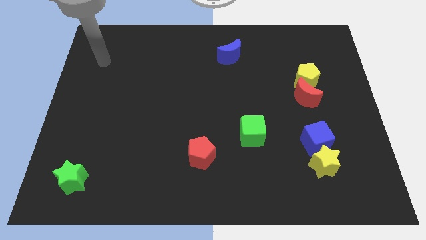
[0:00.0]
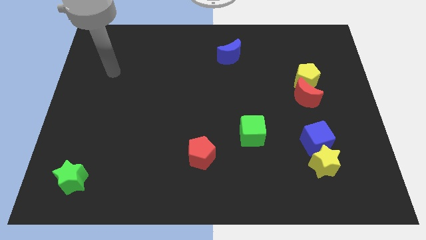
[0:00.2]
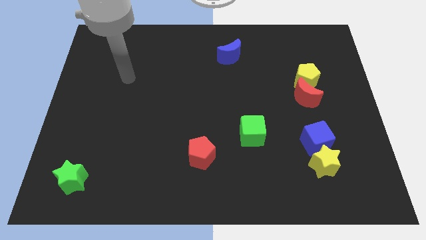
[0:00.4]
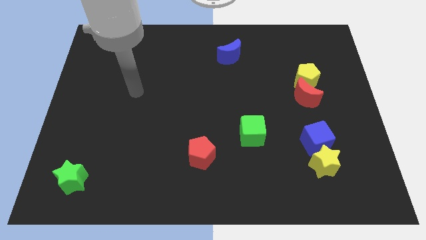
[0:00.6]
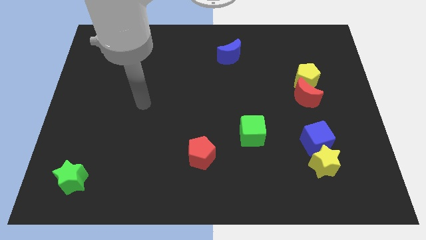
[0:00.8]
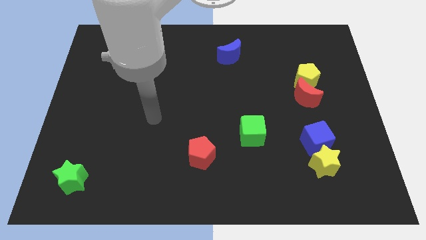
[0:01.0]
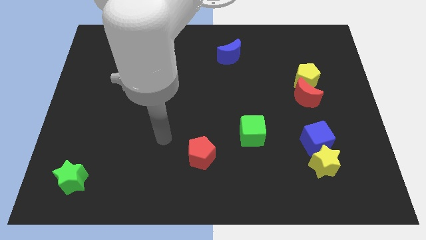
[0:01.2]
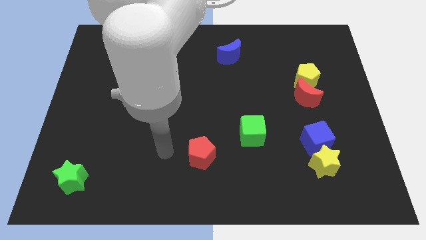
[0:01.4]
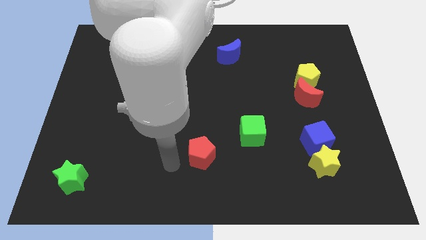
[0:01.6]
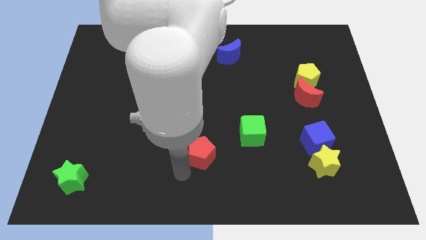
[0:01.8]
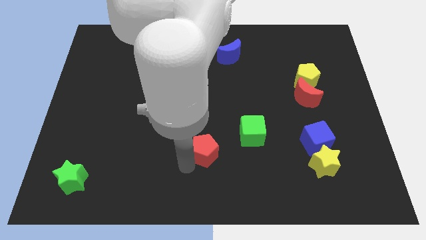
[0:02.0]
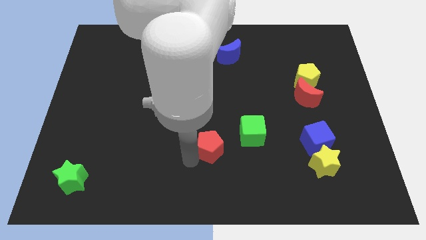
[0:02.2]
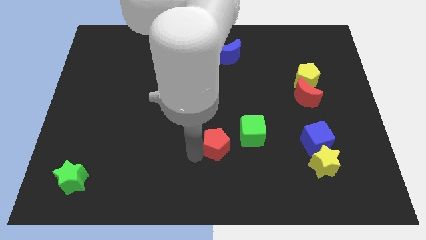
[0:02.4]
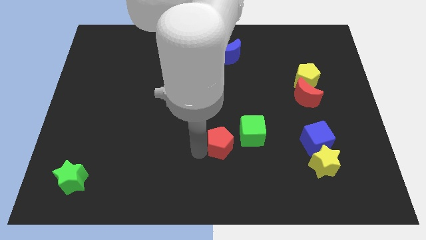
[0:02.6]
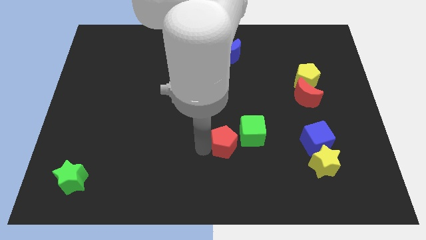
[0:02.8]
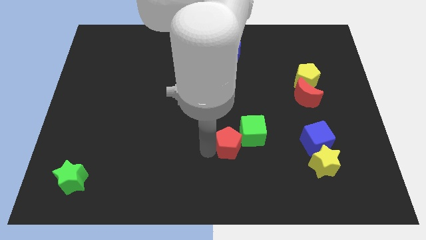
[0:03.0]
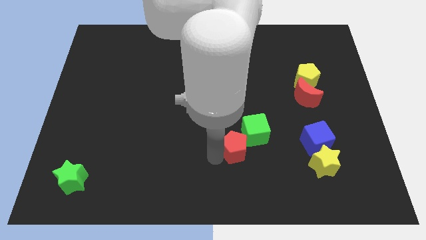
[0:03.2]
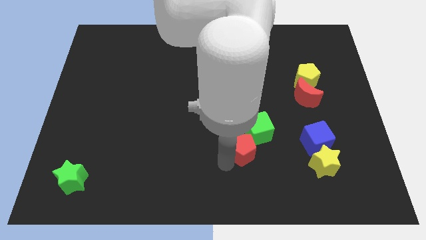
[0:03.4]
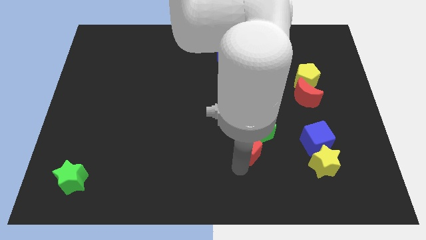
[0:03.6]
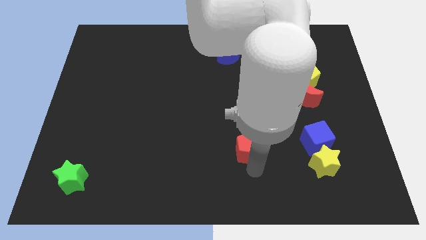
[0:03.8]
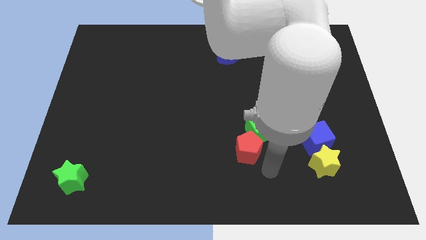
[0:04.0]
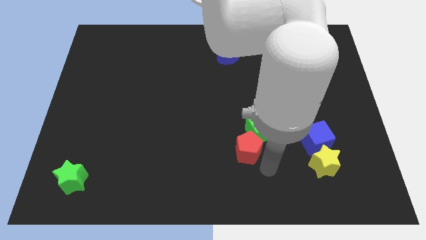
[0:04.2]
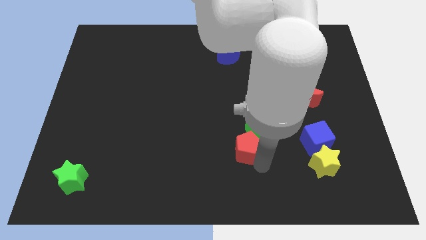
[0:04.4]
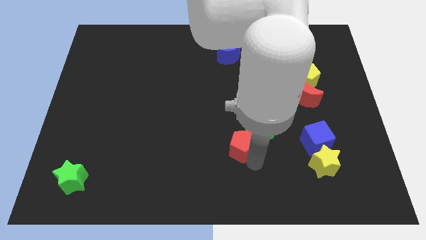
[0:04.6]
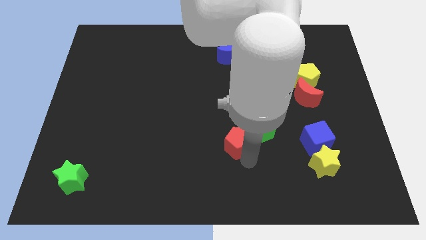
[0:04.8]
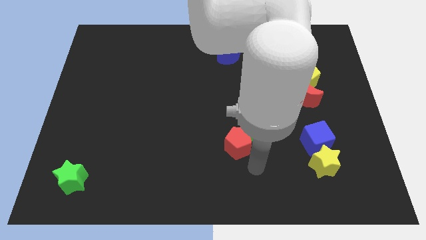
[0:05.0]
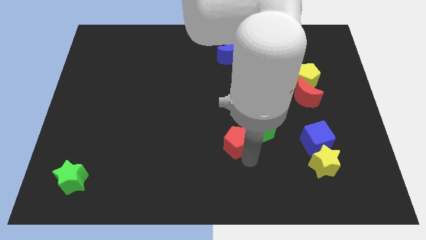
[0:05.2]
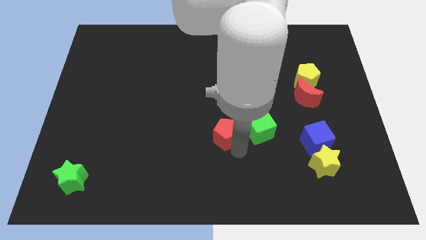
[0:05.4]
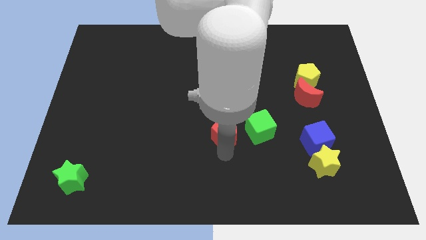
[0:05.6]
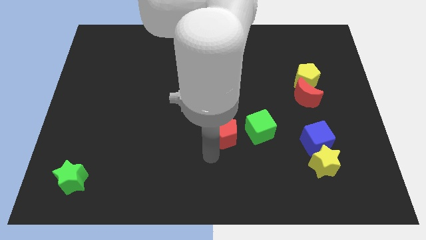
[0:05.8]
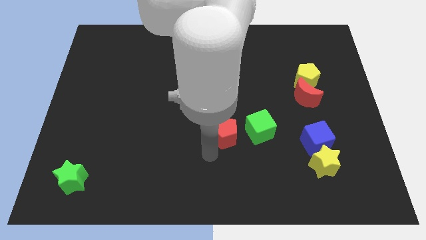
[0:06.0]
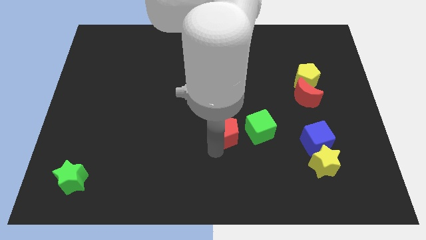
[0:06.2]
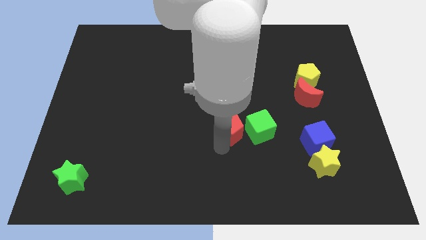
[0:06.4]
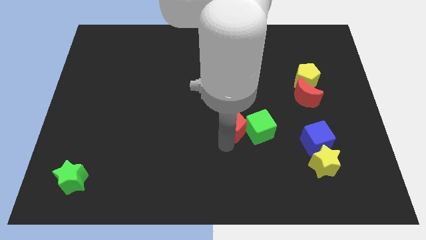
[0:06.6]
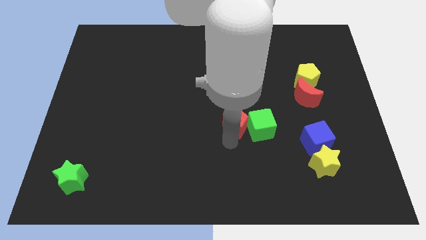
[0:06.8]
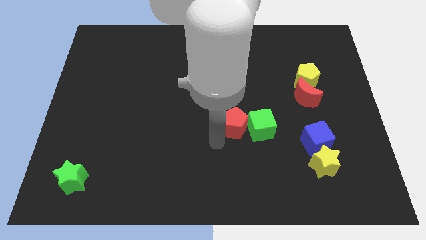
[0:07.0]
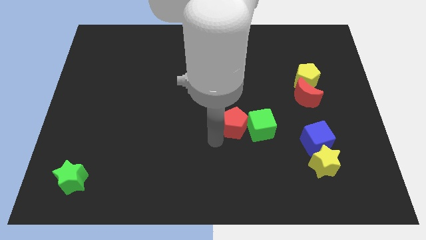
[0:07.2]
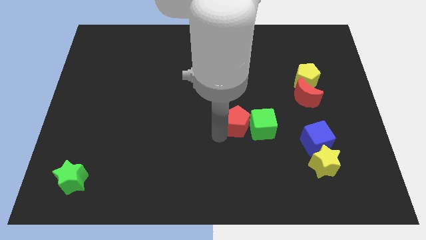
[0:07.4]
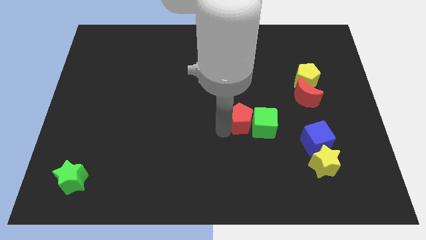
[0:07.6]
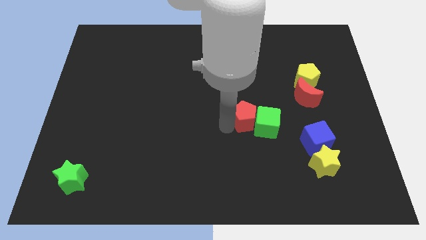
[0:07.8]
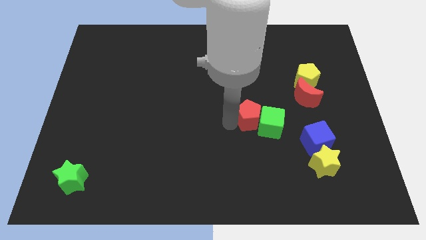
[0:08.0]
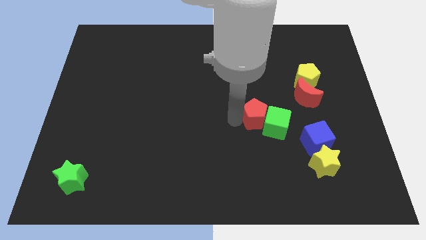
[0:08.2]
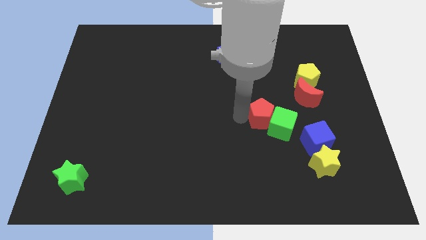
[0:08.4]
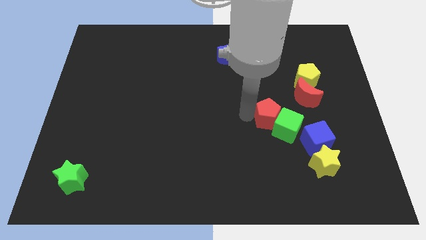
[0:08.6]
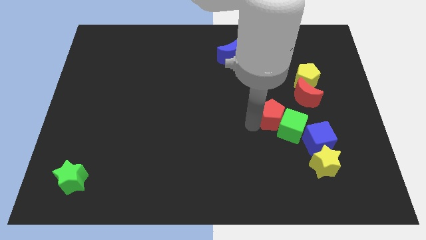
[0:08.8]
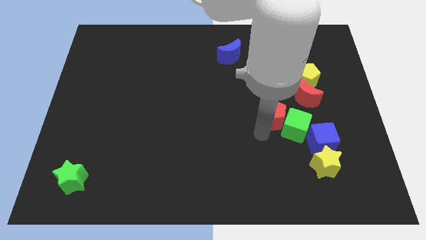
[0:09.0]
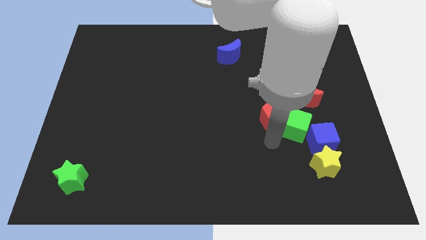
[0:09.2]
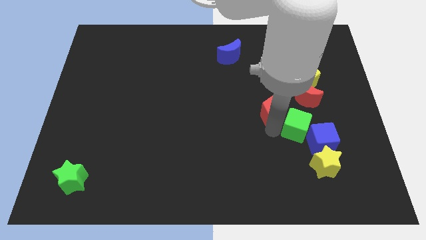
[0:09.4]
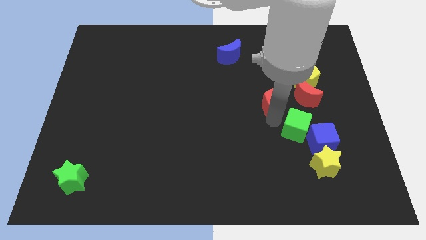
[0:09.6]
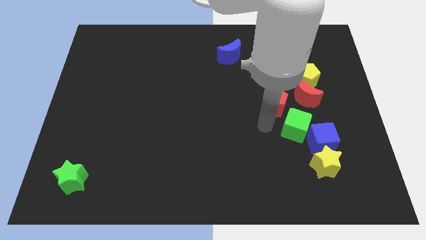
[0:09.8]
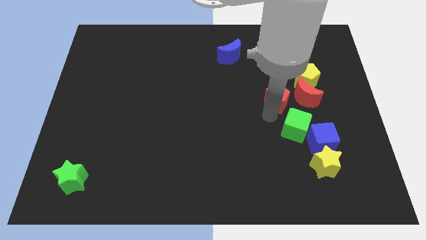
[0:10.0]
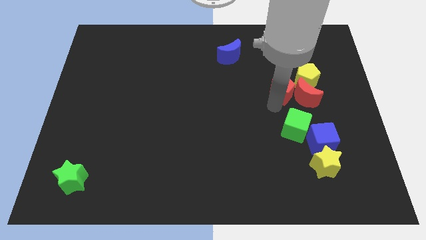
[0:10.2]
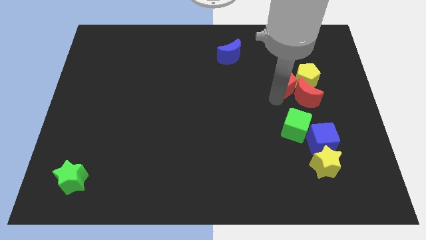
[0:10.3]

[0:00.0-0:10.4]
slide the red pentagon to the yellow pentagon

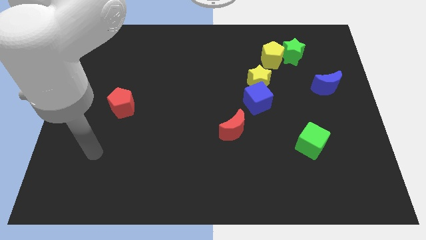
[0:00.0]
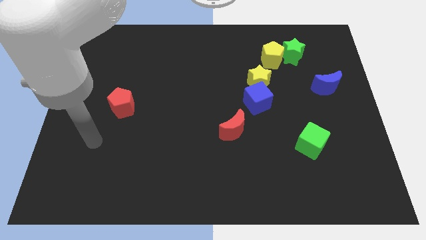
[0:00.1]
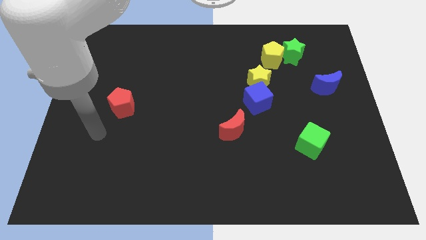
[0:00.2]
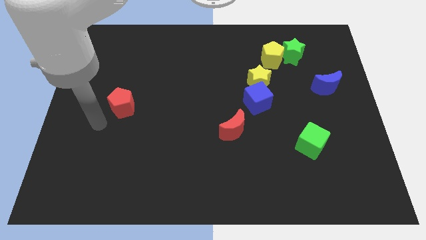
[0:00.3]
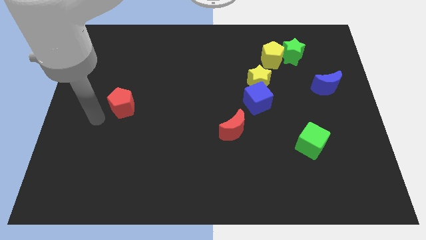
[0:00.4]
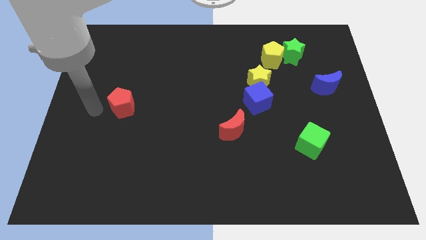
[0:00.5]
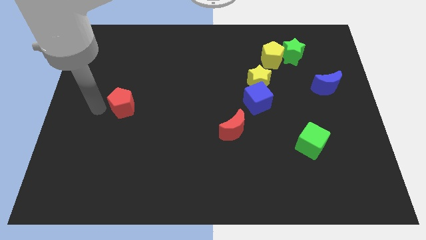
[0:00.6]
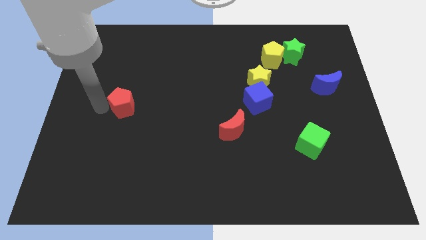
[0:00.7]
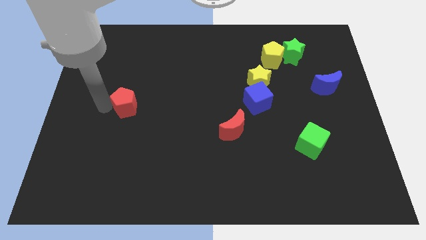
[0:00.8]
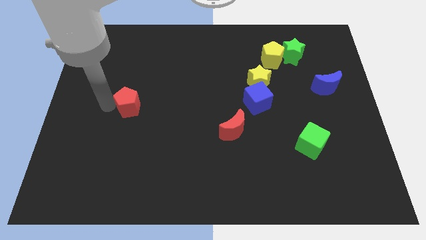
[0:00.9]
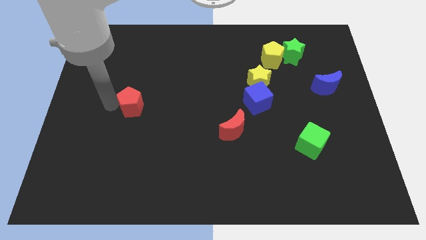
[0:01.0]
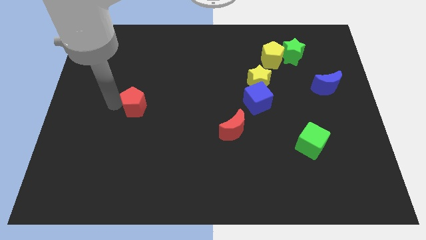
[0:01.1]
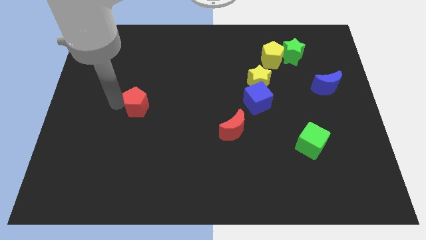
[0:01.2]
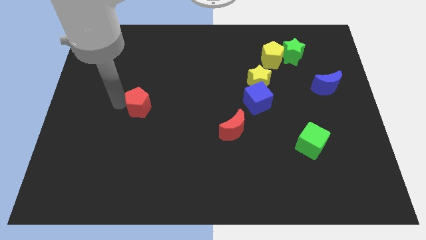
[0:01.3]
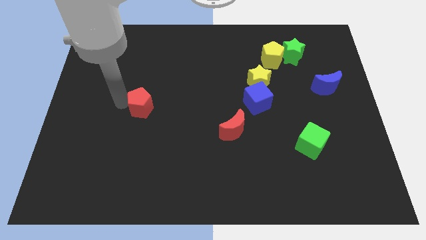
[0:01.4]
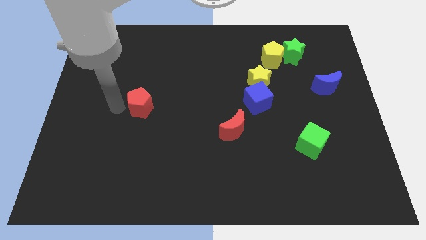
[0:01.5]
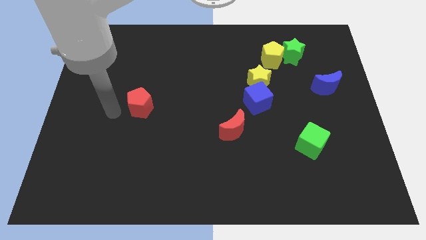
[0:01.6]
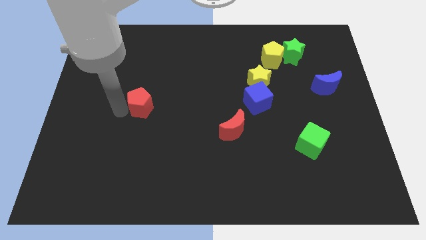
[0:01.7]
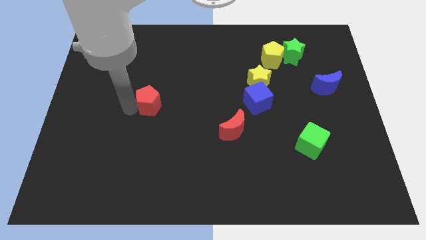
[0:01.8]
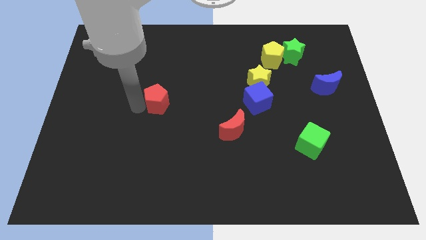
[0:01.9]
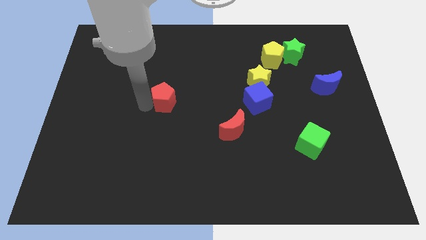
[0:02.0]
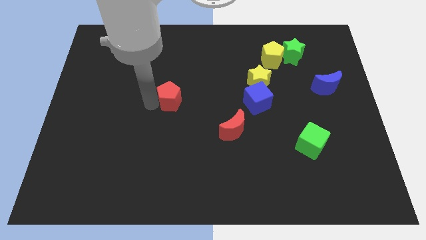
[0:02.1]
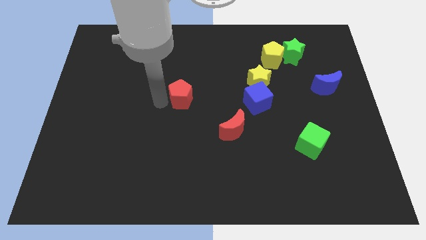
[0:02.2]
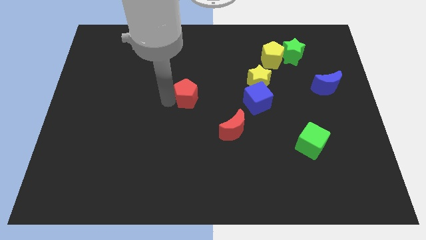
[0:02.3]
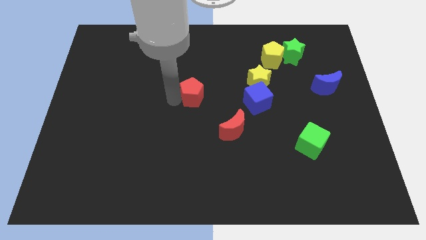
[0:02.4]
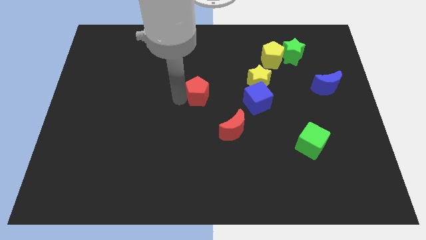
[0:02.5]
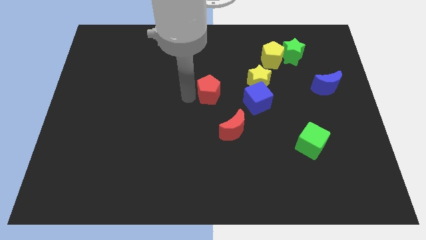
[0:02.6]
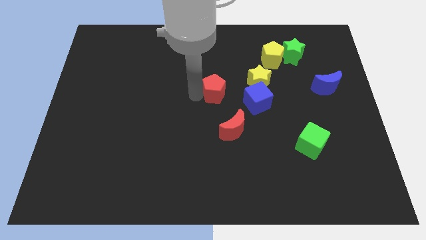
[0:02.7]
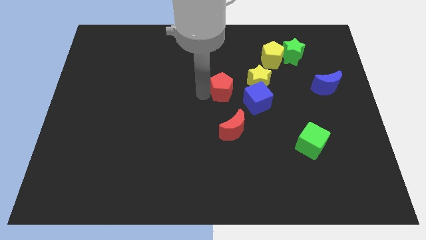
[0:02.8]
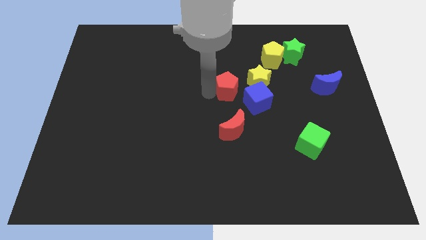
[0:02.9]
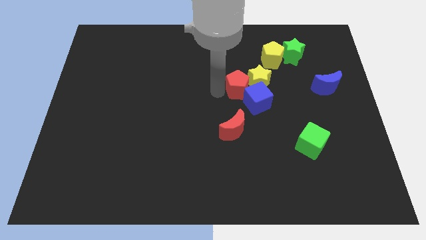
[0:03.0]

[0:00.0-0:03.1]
slide the red pentagon next to the yellow star
